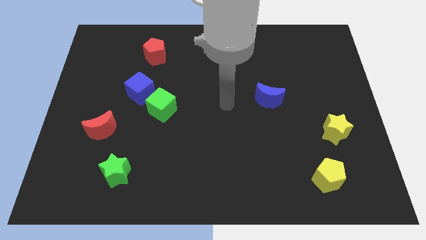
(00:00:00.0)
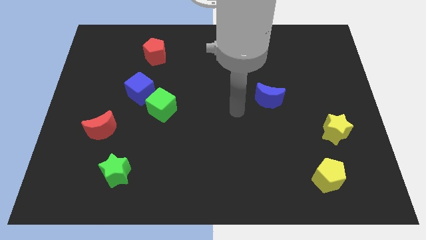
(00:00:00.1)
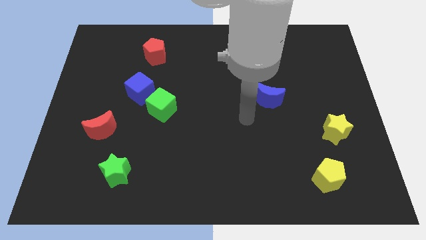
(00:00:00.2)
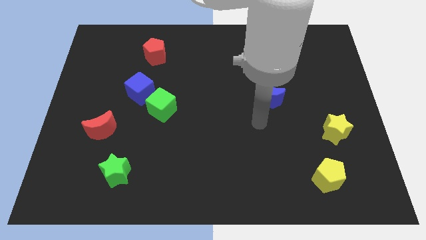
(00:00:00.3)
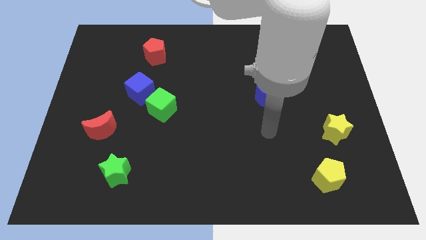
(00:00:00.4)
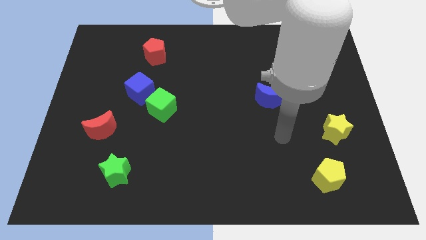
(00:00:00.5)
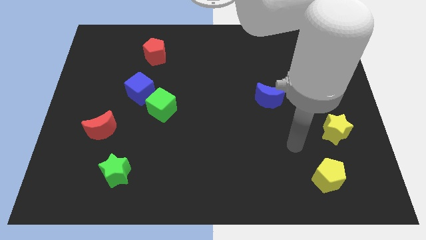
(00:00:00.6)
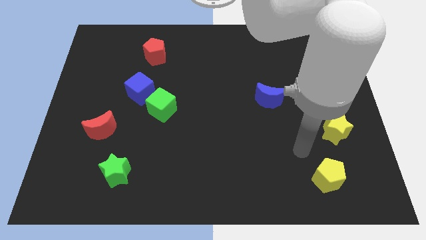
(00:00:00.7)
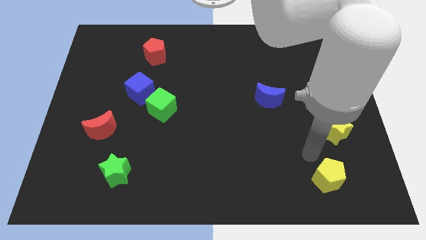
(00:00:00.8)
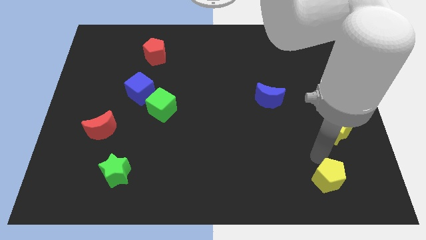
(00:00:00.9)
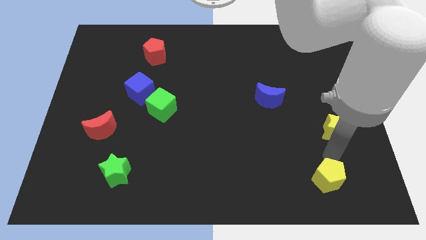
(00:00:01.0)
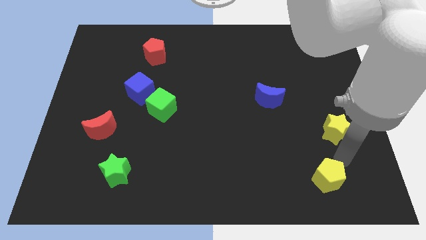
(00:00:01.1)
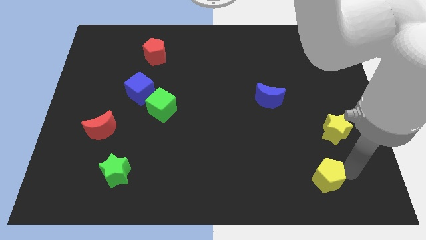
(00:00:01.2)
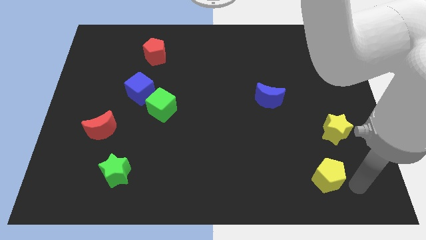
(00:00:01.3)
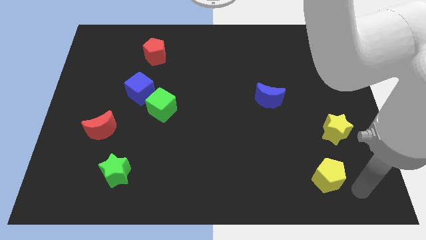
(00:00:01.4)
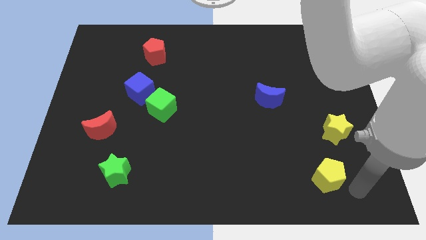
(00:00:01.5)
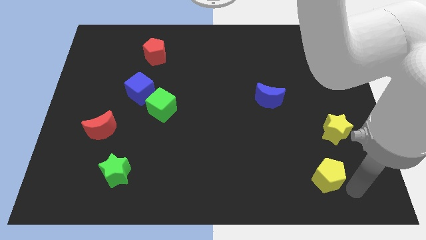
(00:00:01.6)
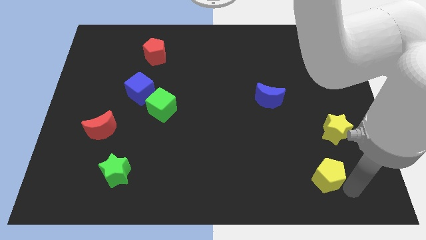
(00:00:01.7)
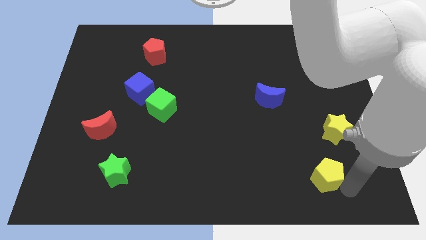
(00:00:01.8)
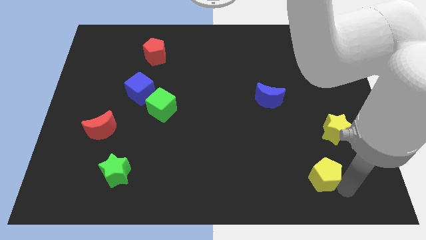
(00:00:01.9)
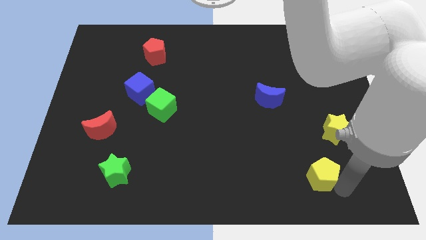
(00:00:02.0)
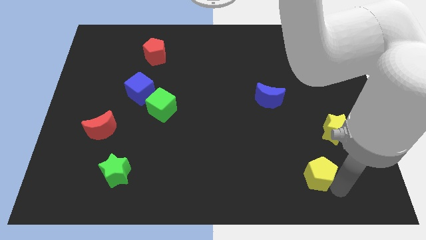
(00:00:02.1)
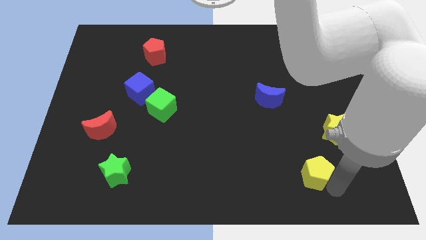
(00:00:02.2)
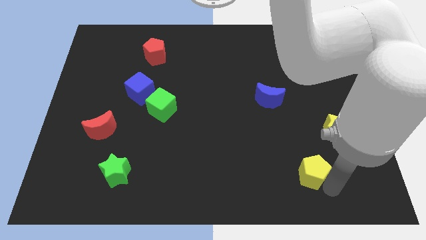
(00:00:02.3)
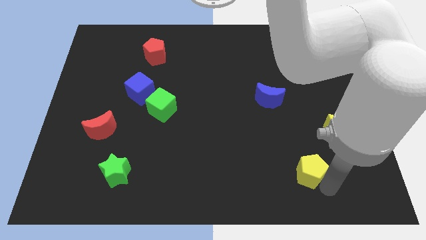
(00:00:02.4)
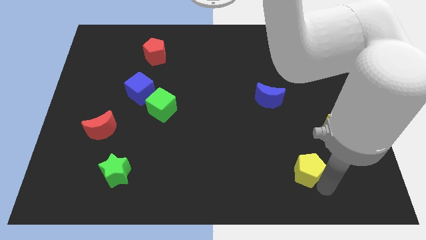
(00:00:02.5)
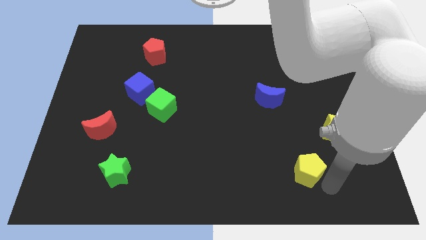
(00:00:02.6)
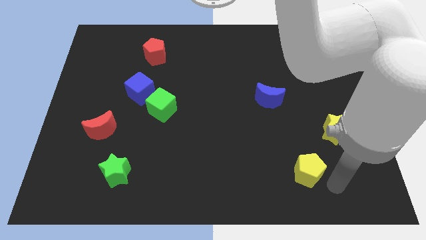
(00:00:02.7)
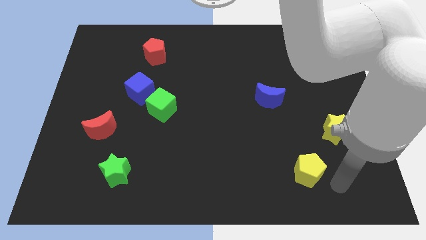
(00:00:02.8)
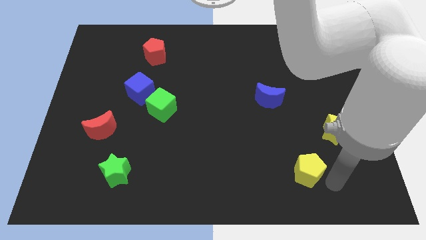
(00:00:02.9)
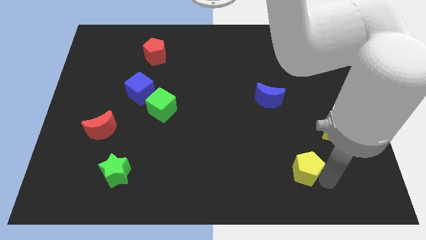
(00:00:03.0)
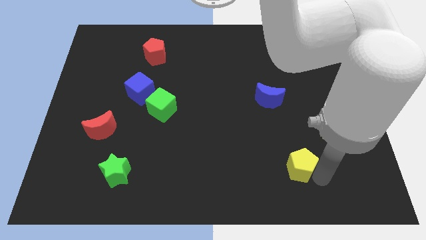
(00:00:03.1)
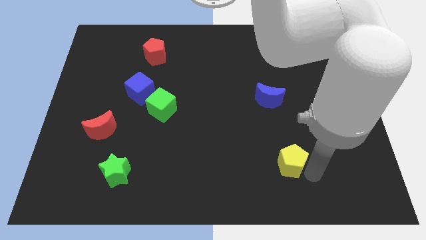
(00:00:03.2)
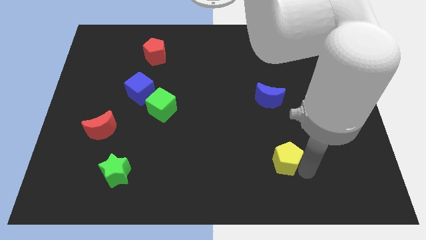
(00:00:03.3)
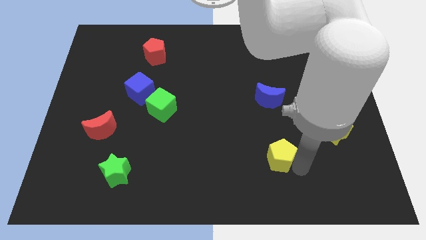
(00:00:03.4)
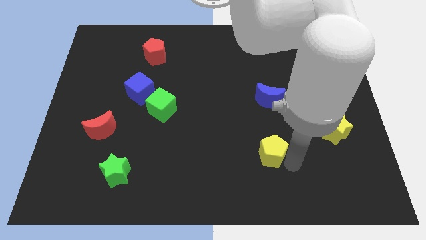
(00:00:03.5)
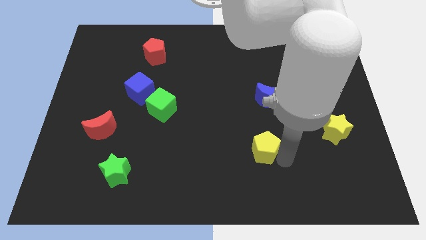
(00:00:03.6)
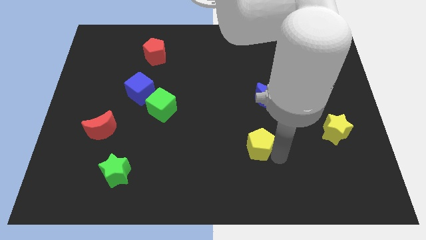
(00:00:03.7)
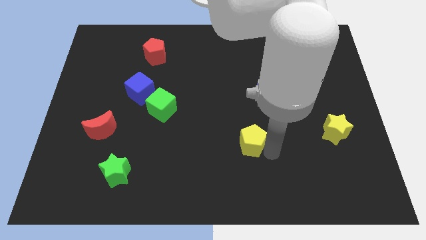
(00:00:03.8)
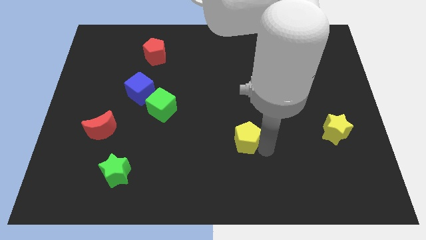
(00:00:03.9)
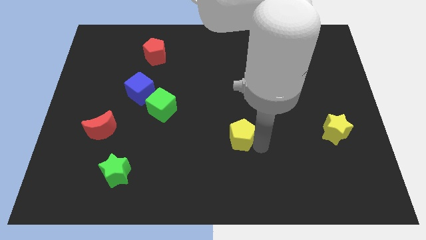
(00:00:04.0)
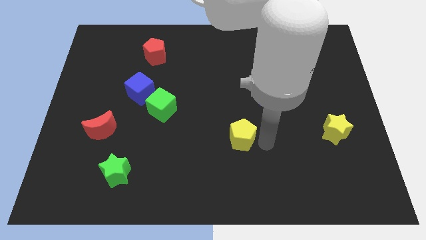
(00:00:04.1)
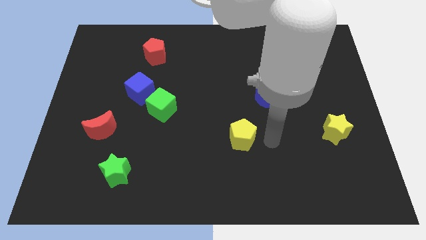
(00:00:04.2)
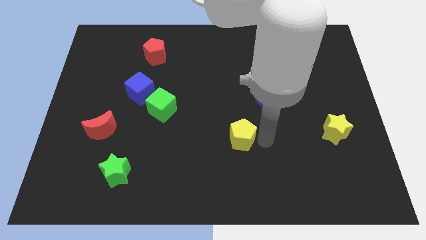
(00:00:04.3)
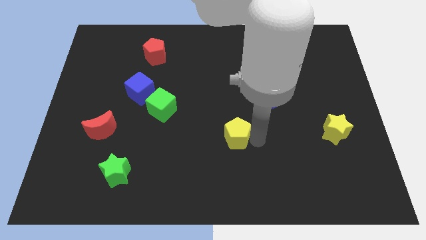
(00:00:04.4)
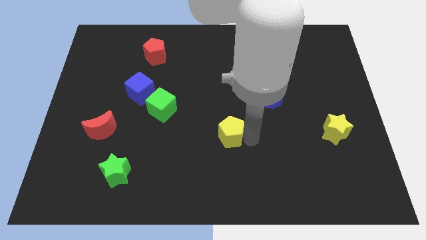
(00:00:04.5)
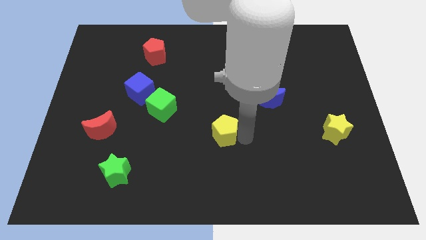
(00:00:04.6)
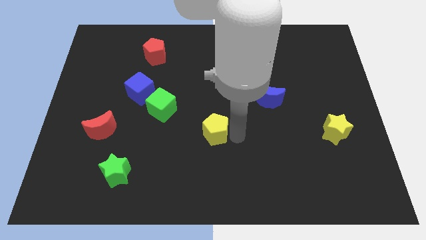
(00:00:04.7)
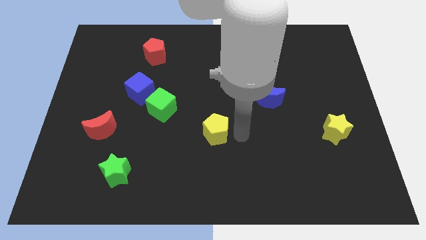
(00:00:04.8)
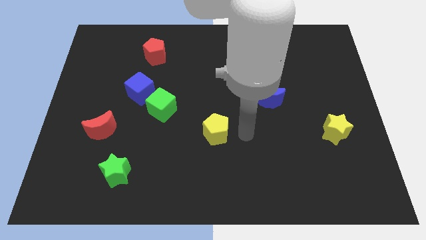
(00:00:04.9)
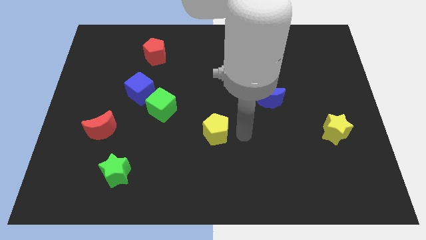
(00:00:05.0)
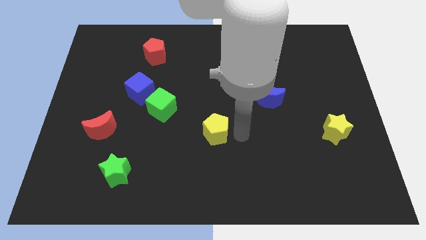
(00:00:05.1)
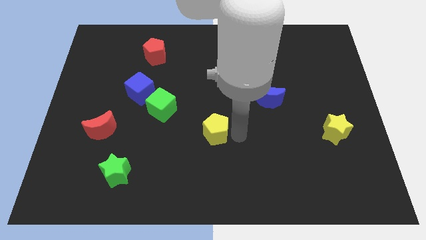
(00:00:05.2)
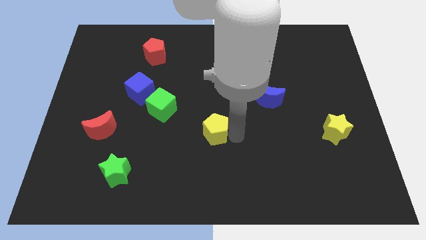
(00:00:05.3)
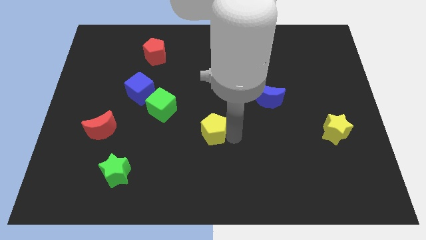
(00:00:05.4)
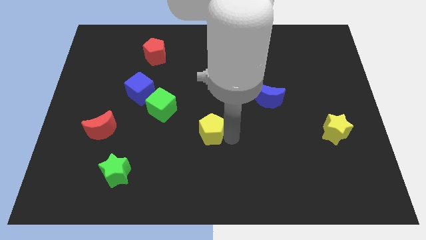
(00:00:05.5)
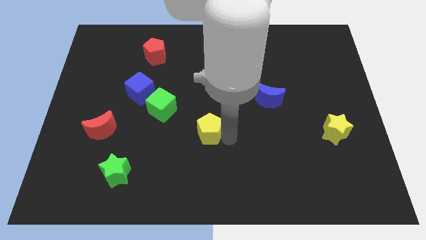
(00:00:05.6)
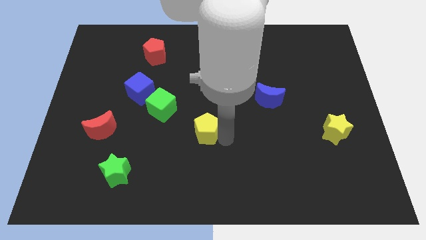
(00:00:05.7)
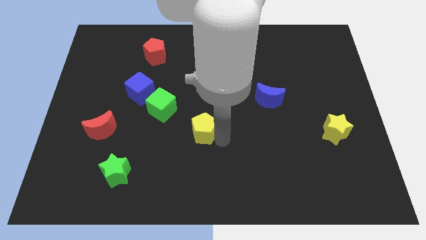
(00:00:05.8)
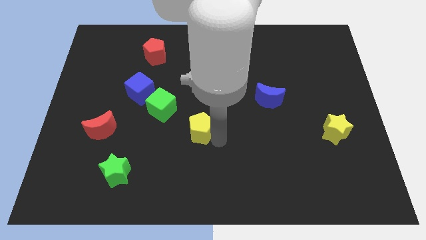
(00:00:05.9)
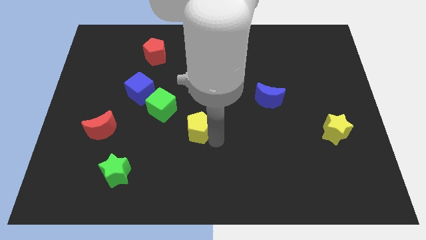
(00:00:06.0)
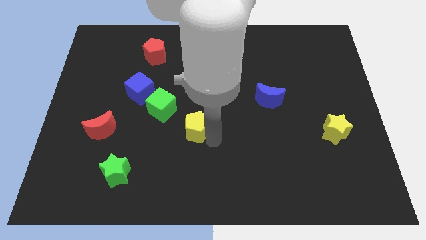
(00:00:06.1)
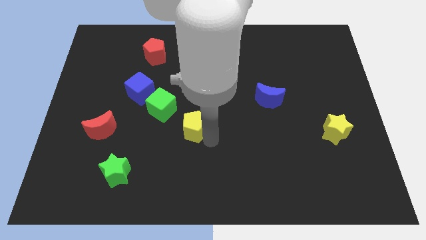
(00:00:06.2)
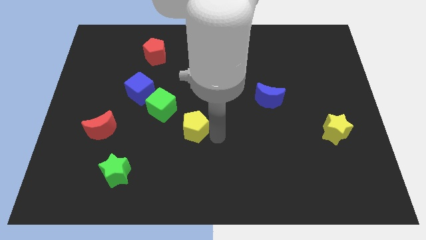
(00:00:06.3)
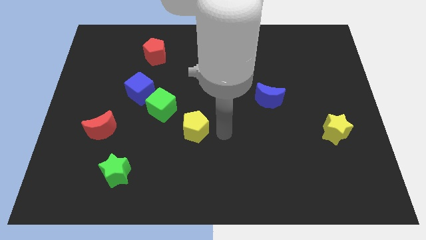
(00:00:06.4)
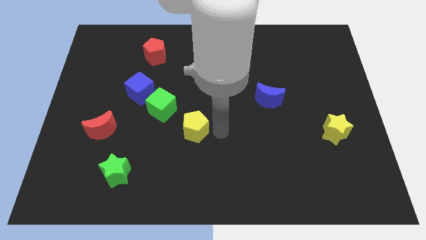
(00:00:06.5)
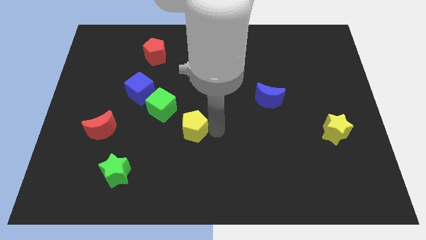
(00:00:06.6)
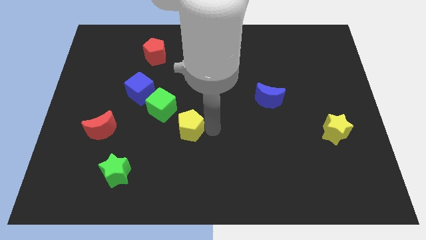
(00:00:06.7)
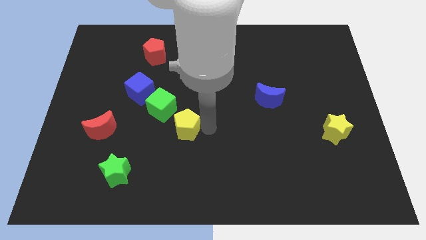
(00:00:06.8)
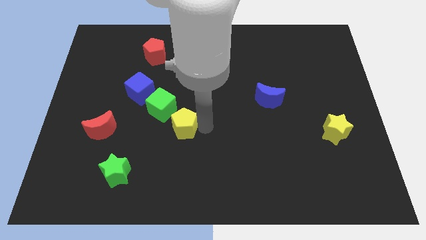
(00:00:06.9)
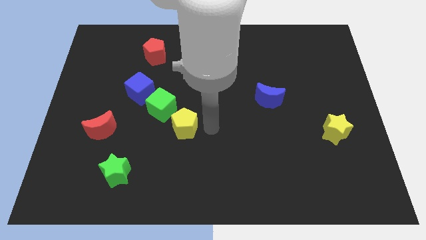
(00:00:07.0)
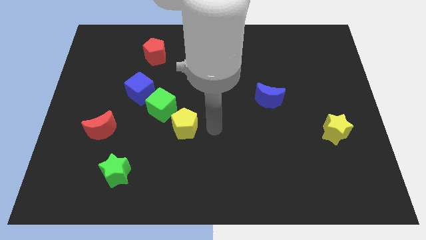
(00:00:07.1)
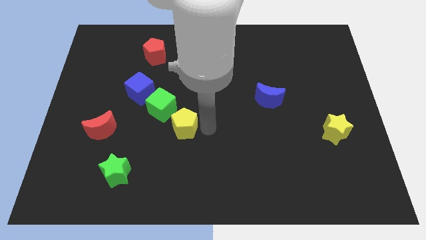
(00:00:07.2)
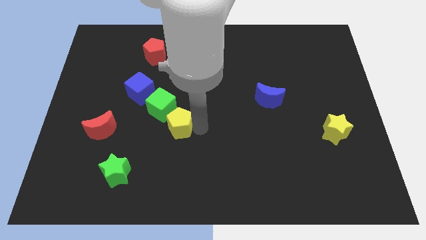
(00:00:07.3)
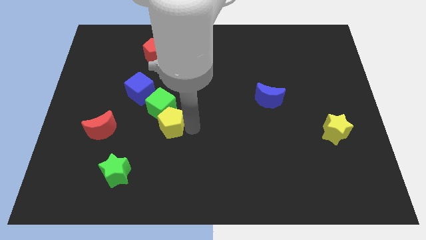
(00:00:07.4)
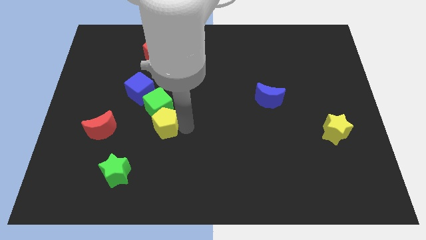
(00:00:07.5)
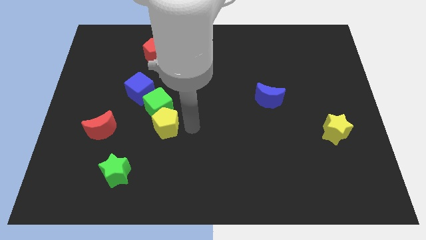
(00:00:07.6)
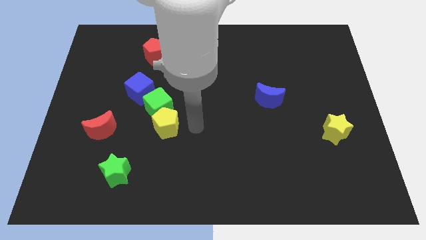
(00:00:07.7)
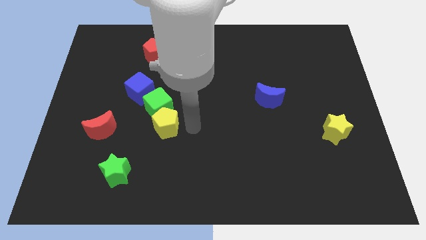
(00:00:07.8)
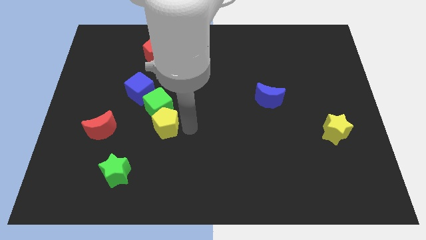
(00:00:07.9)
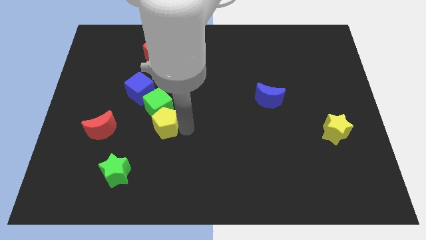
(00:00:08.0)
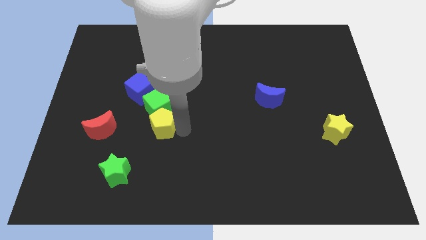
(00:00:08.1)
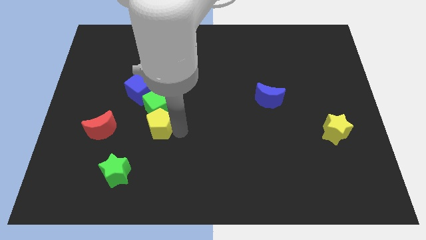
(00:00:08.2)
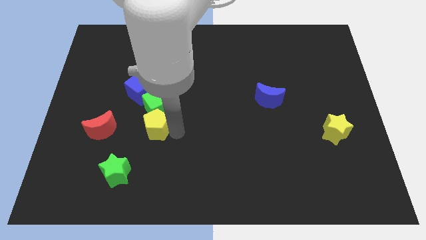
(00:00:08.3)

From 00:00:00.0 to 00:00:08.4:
slide the yellow pentagon to the bottom side of the blue cube
